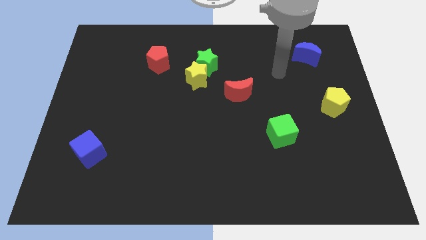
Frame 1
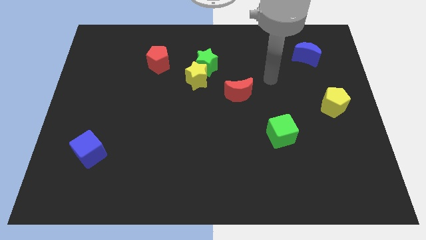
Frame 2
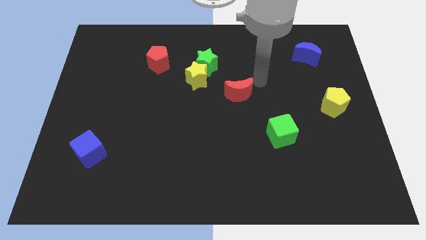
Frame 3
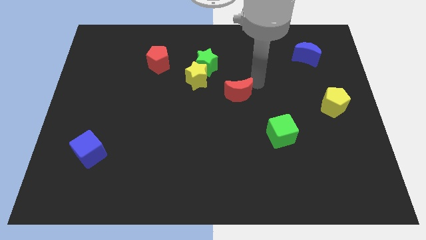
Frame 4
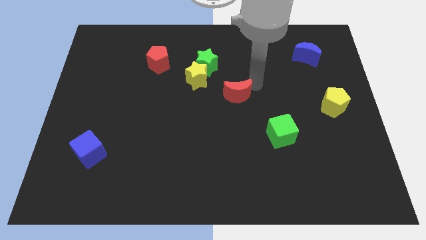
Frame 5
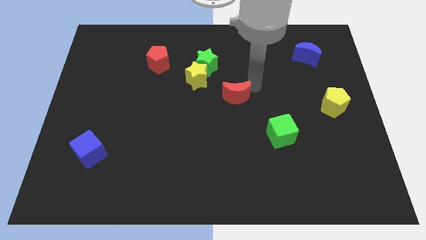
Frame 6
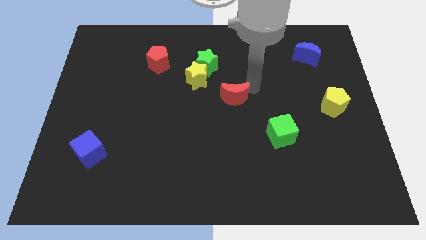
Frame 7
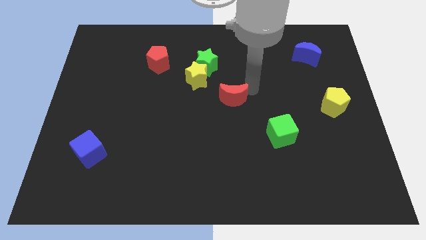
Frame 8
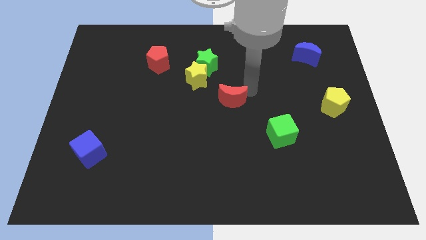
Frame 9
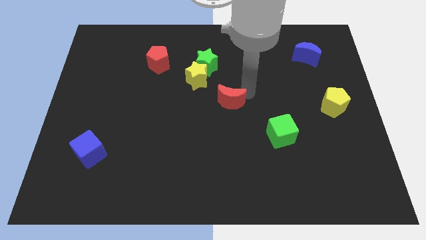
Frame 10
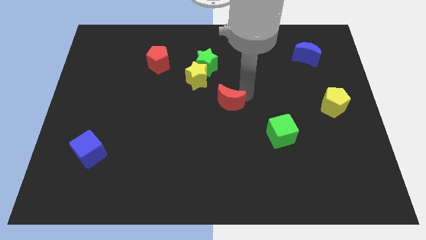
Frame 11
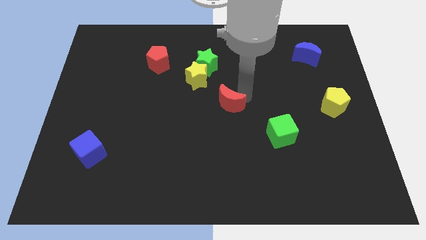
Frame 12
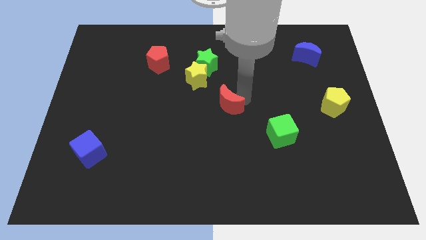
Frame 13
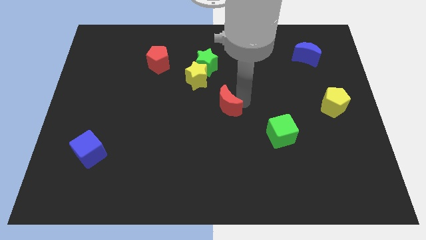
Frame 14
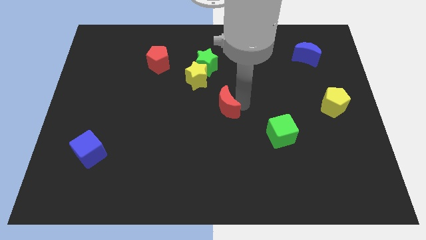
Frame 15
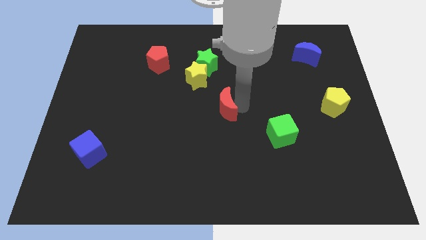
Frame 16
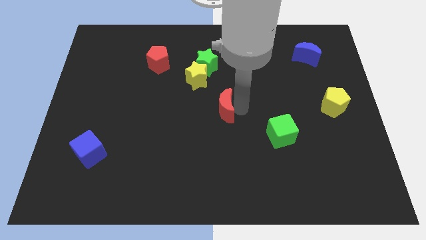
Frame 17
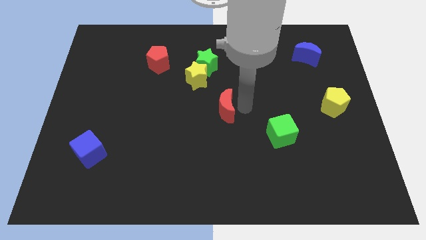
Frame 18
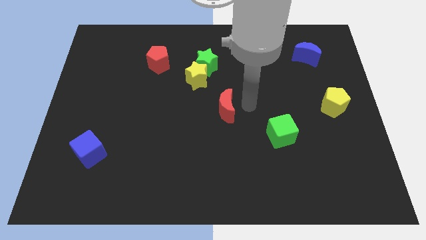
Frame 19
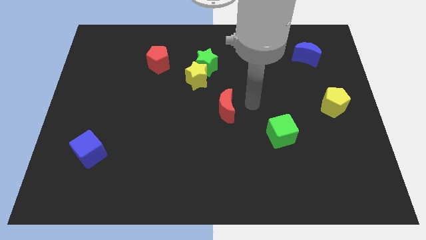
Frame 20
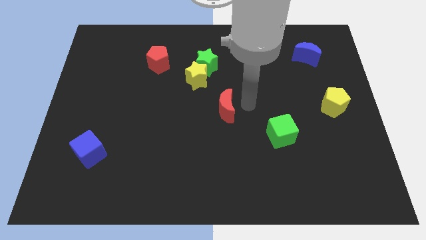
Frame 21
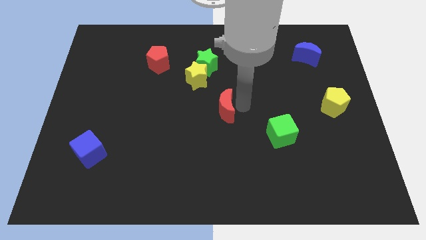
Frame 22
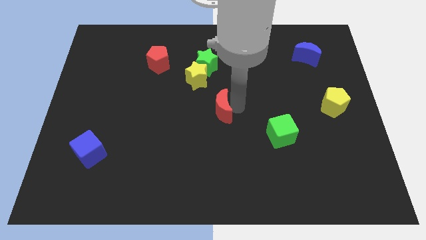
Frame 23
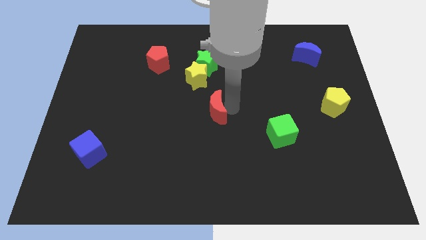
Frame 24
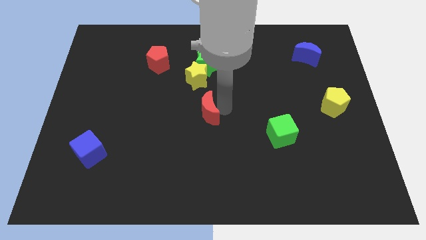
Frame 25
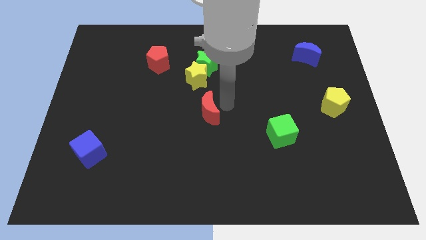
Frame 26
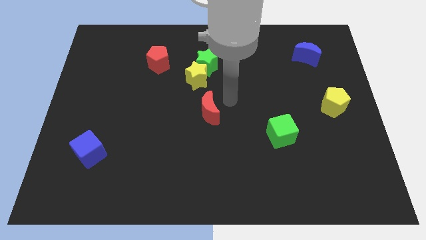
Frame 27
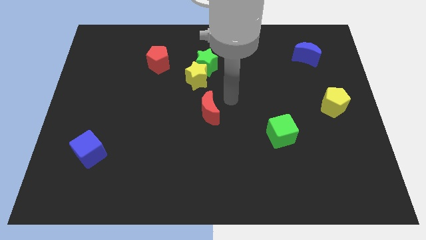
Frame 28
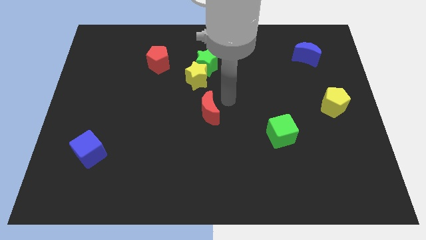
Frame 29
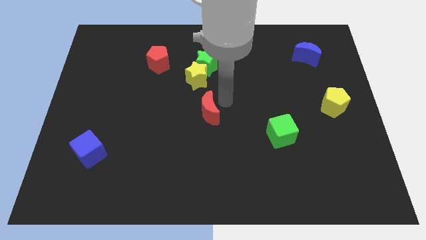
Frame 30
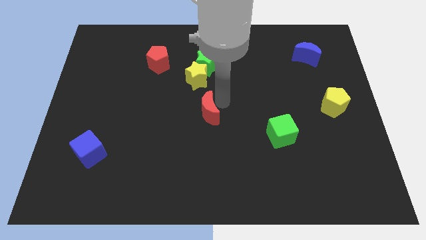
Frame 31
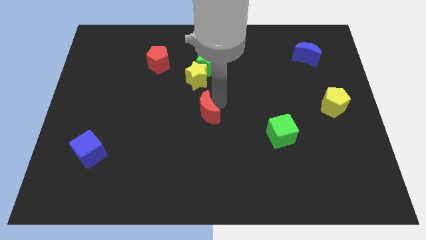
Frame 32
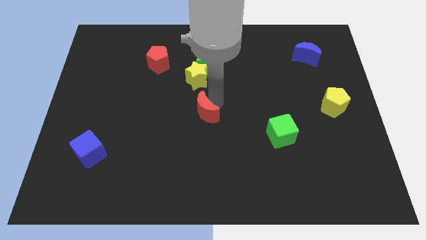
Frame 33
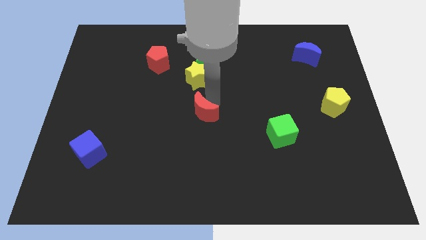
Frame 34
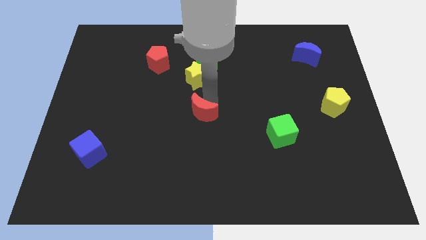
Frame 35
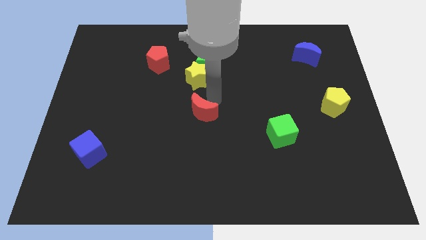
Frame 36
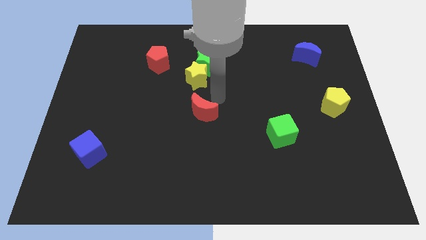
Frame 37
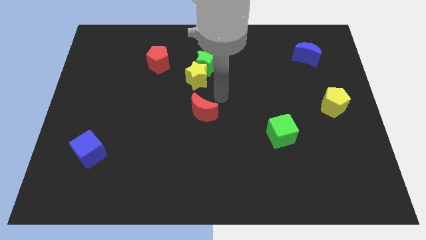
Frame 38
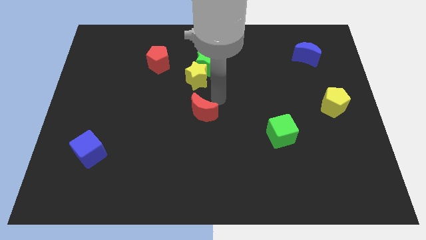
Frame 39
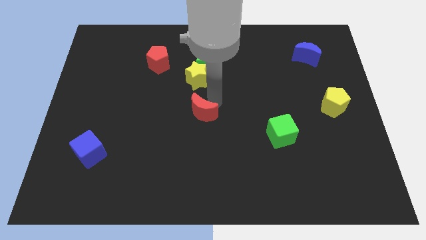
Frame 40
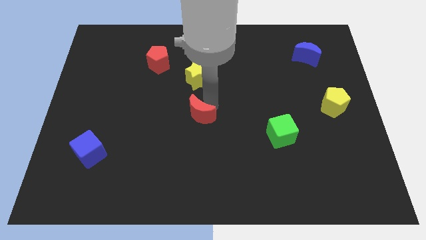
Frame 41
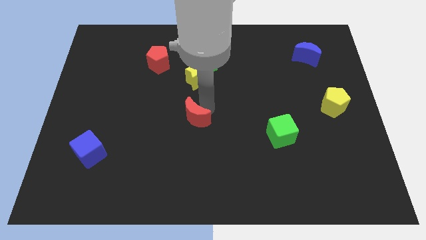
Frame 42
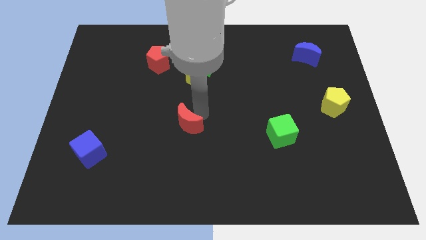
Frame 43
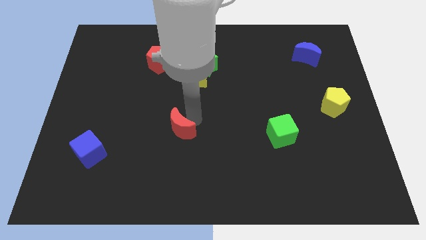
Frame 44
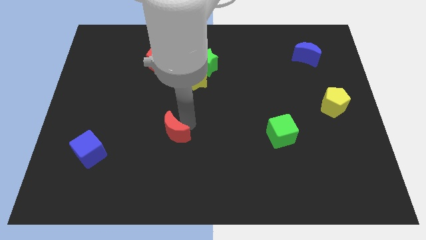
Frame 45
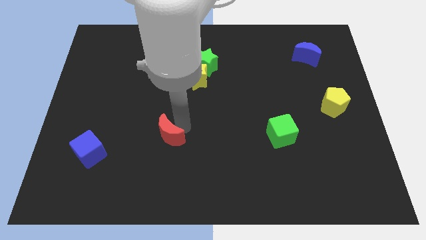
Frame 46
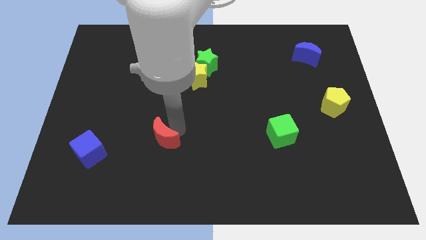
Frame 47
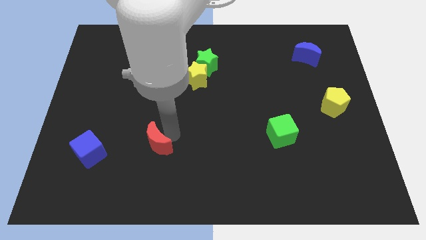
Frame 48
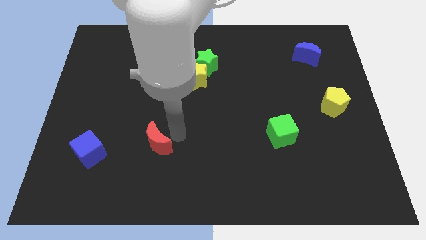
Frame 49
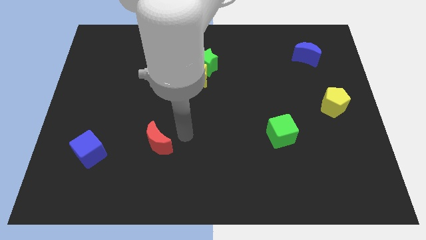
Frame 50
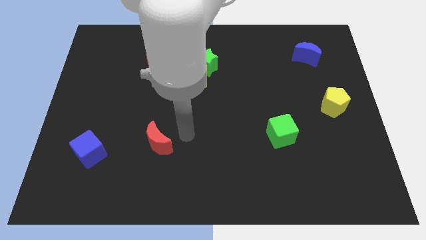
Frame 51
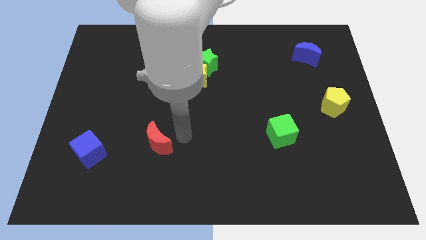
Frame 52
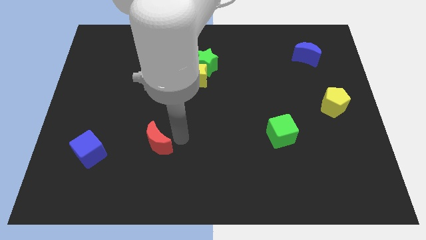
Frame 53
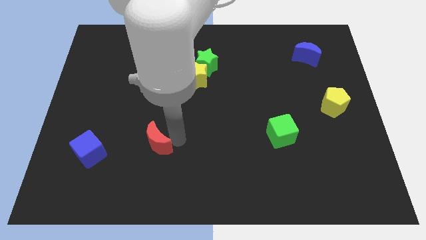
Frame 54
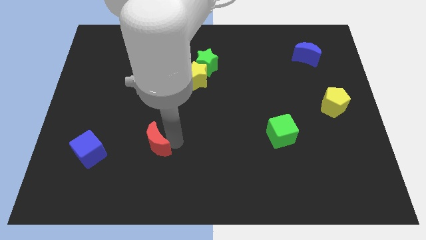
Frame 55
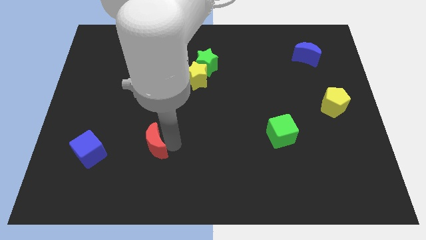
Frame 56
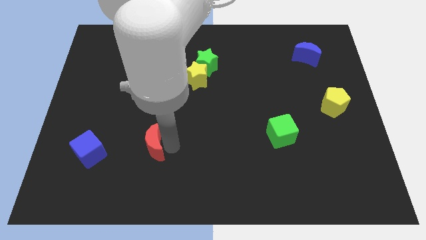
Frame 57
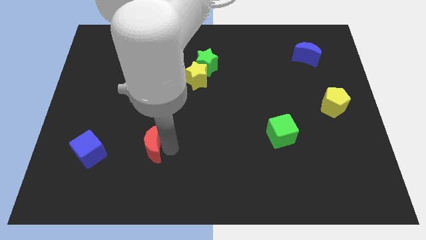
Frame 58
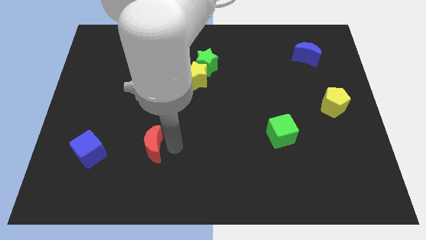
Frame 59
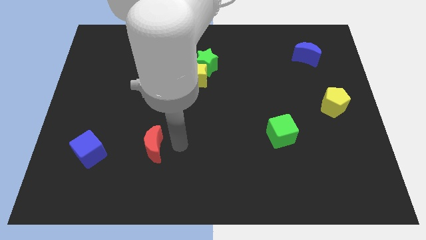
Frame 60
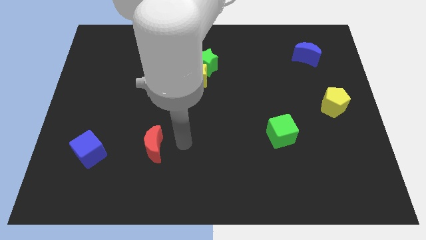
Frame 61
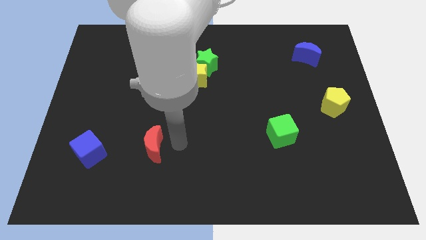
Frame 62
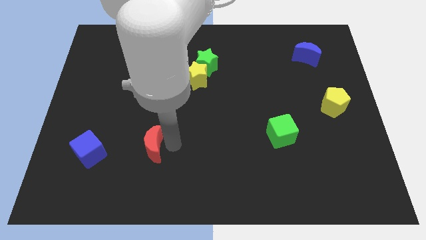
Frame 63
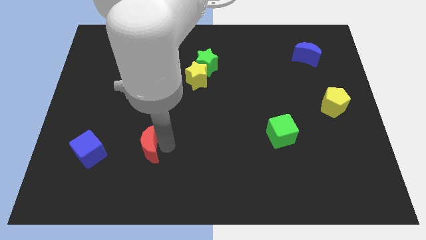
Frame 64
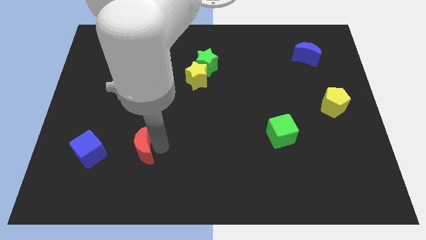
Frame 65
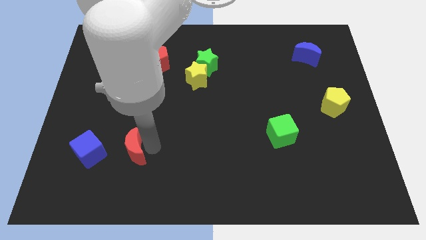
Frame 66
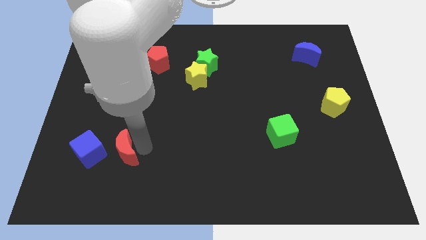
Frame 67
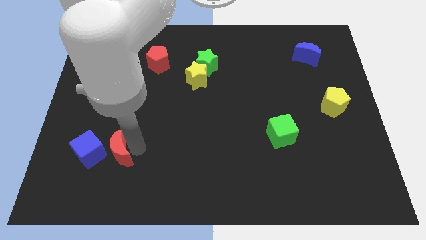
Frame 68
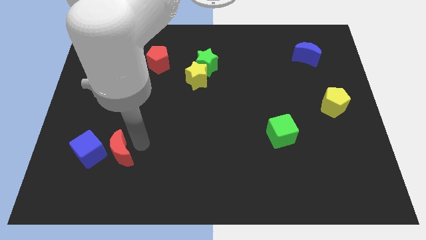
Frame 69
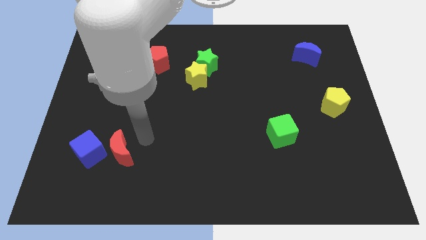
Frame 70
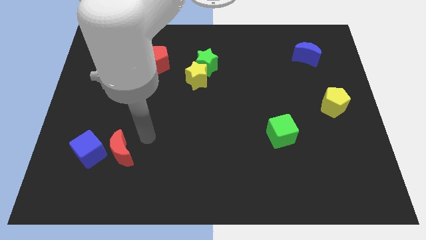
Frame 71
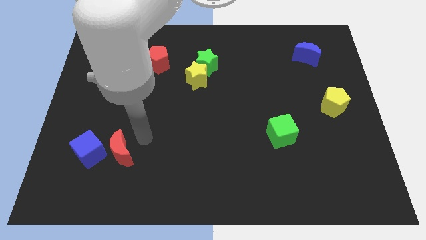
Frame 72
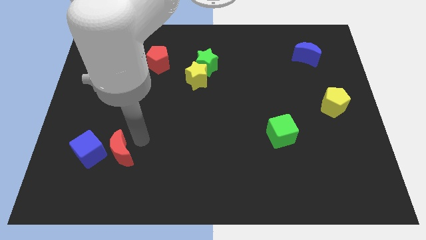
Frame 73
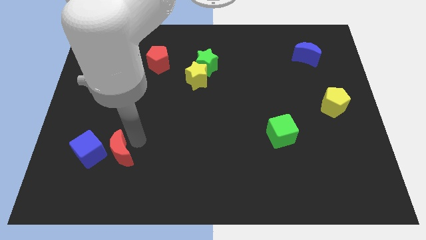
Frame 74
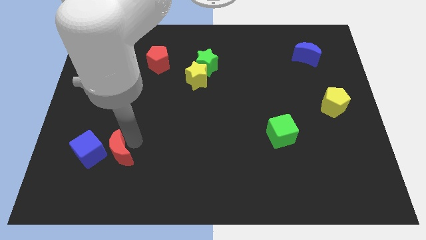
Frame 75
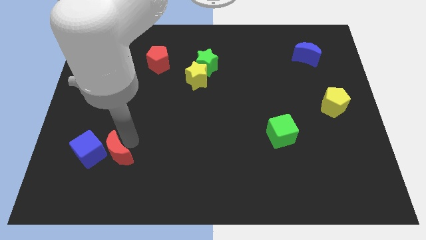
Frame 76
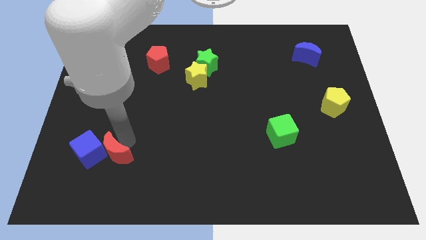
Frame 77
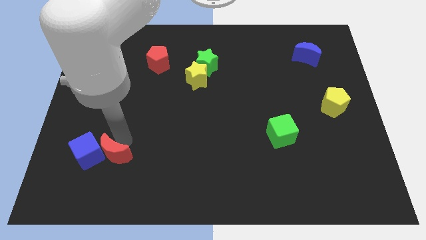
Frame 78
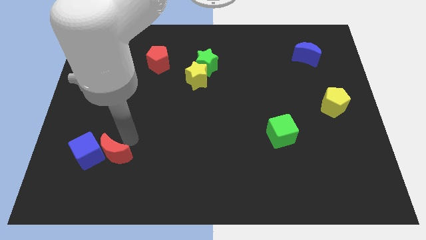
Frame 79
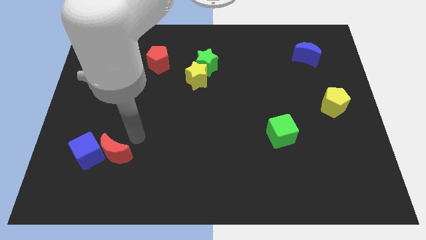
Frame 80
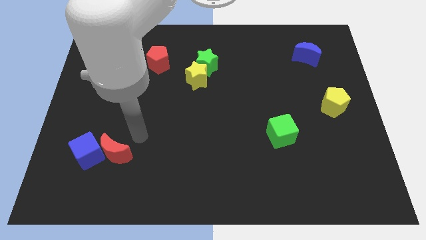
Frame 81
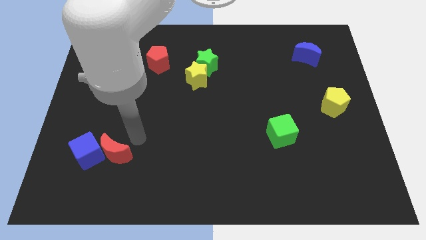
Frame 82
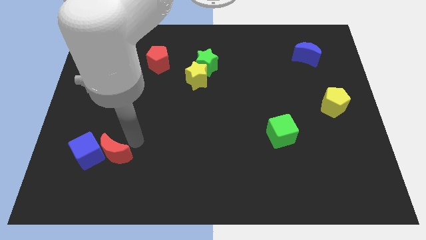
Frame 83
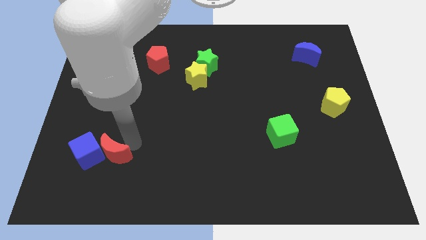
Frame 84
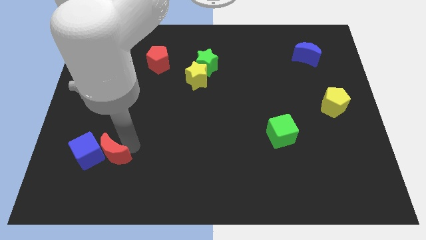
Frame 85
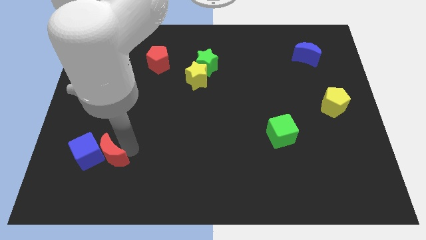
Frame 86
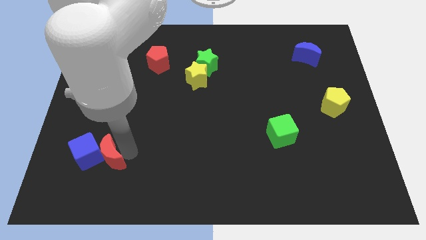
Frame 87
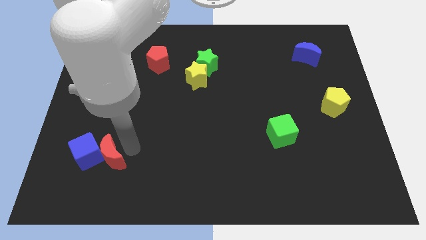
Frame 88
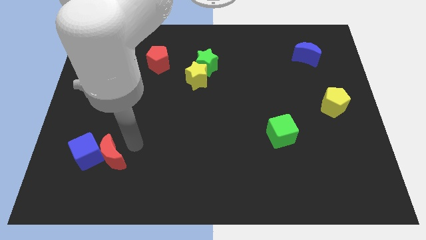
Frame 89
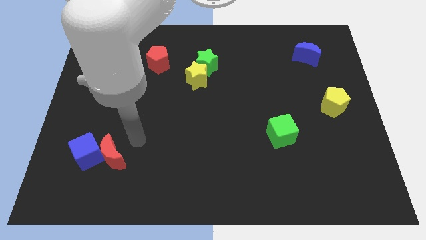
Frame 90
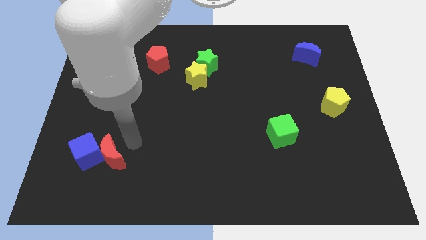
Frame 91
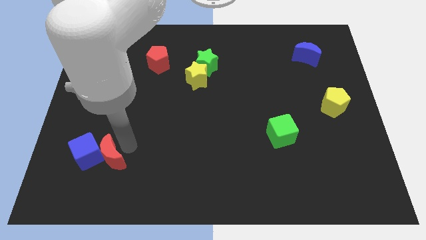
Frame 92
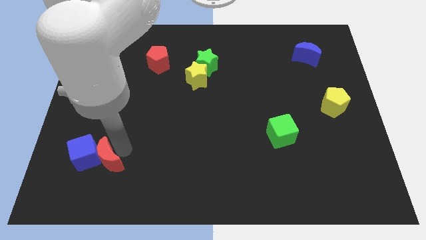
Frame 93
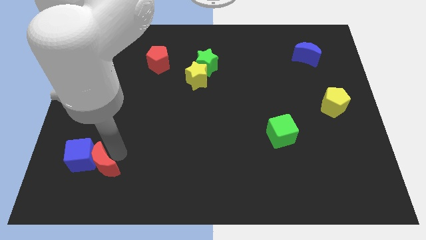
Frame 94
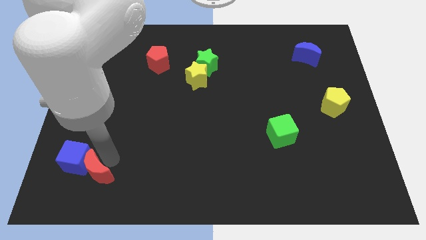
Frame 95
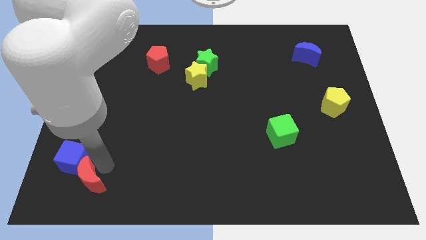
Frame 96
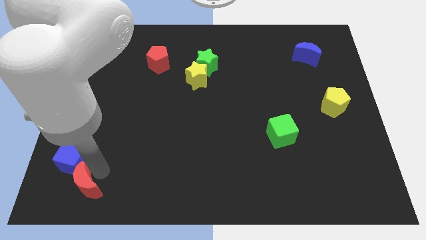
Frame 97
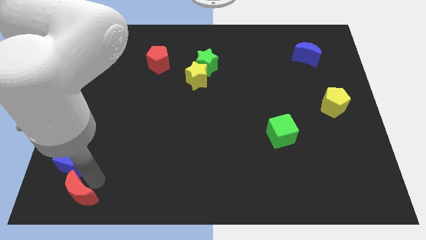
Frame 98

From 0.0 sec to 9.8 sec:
push the red moon to the bottom left corner
